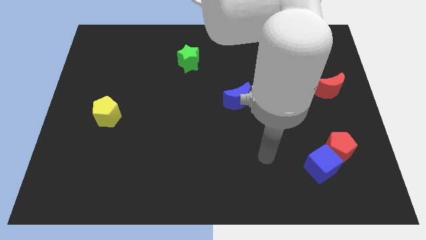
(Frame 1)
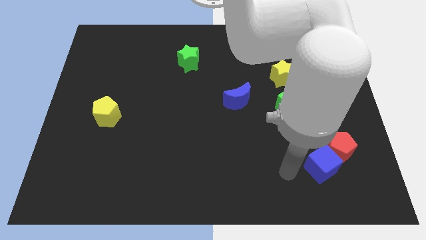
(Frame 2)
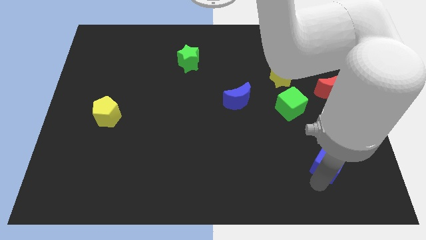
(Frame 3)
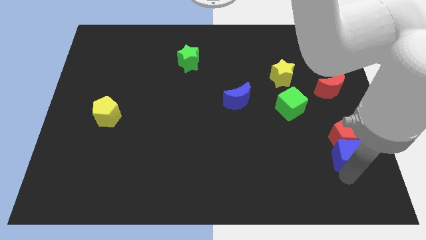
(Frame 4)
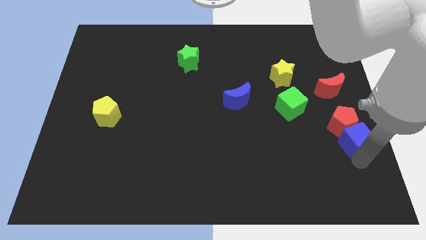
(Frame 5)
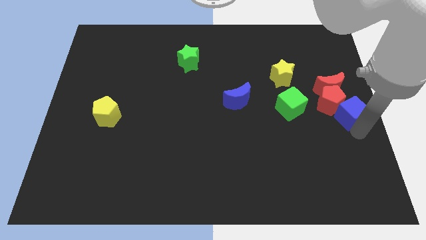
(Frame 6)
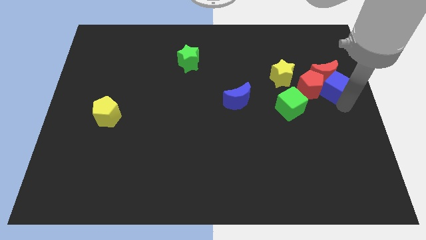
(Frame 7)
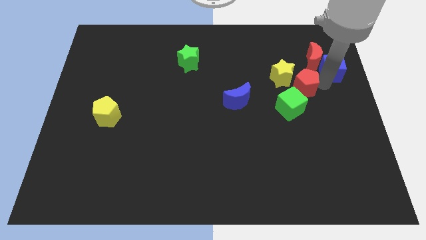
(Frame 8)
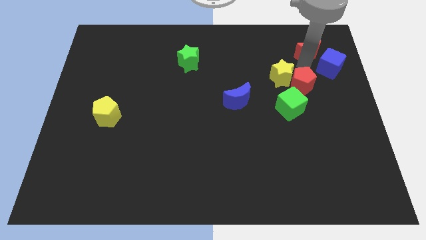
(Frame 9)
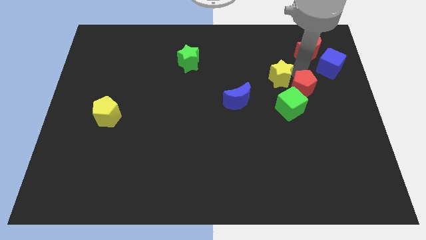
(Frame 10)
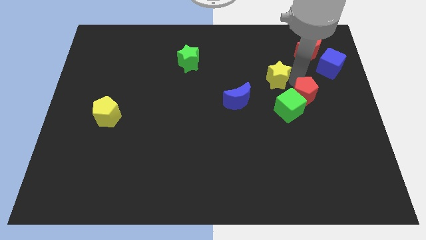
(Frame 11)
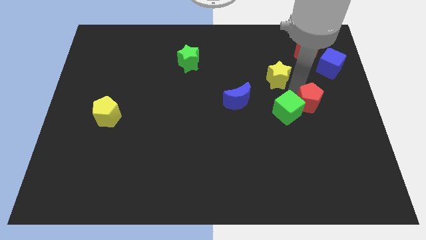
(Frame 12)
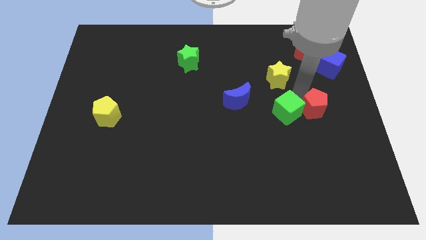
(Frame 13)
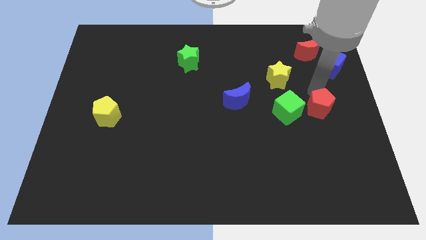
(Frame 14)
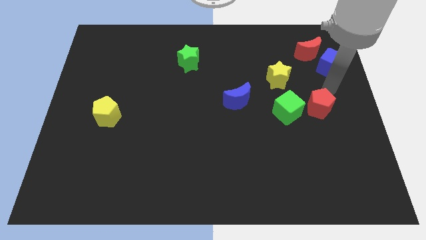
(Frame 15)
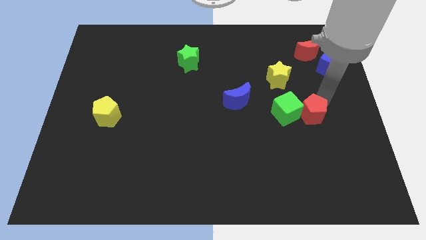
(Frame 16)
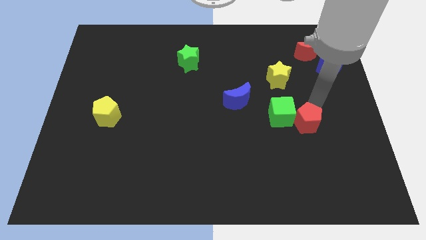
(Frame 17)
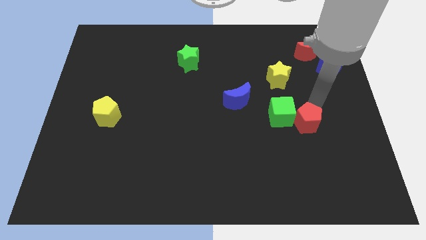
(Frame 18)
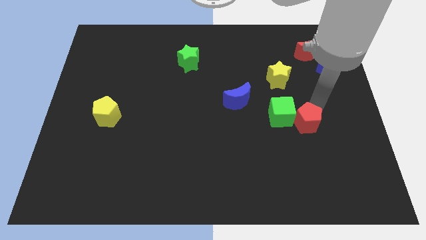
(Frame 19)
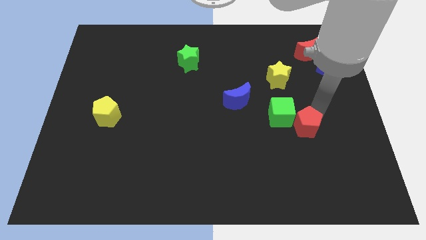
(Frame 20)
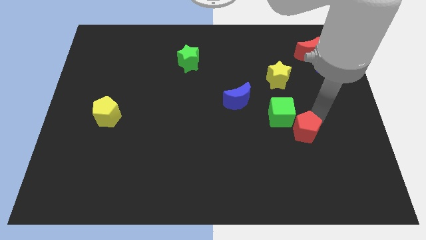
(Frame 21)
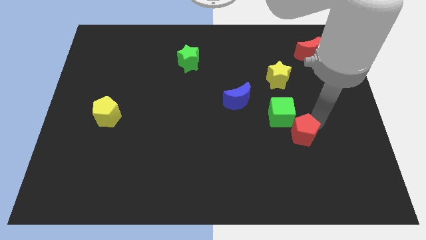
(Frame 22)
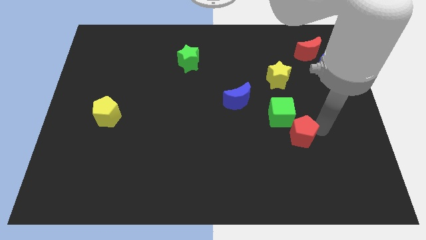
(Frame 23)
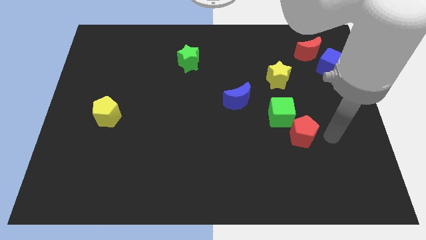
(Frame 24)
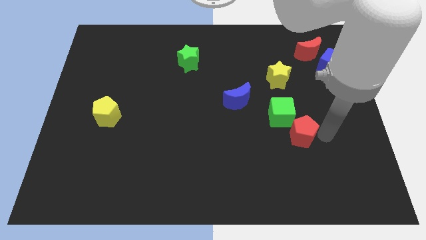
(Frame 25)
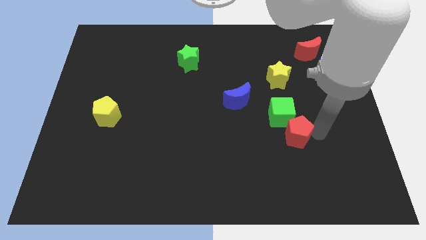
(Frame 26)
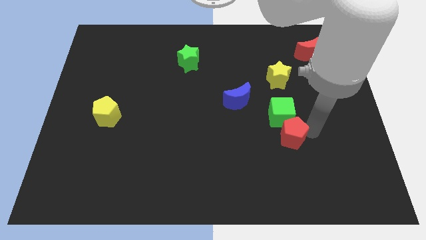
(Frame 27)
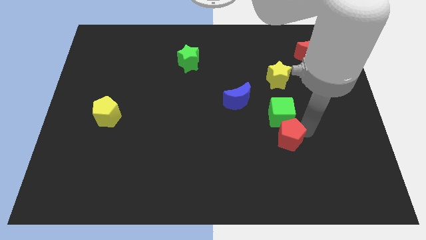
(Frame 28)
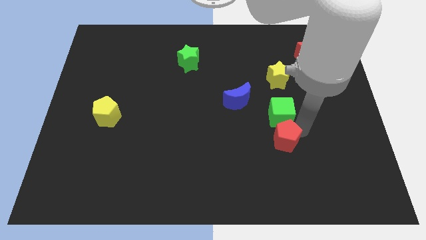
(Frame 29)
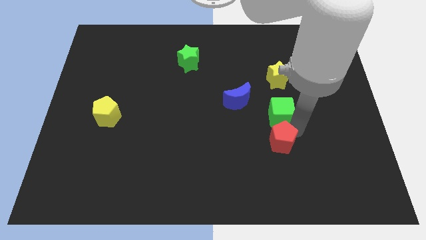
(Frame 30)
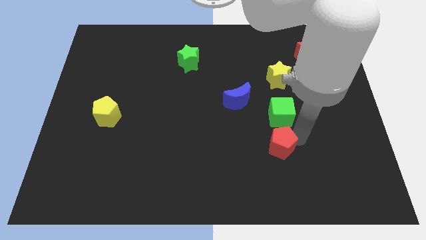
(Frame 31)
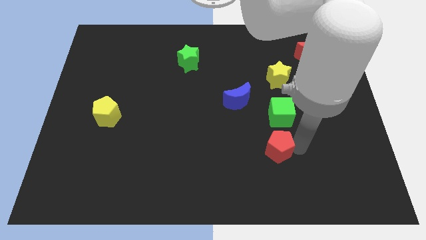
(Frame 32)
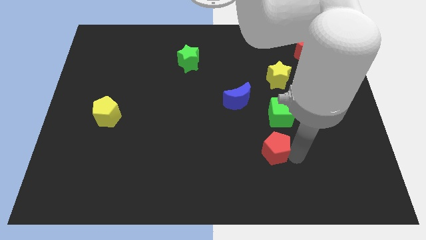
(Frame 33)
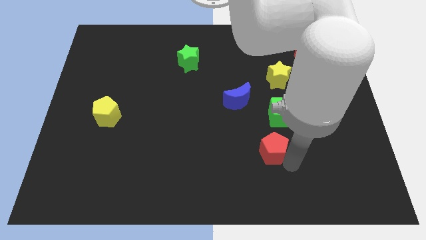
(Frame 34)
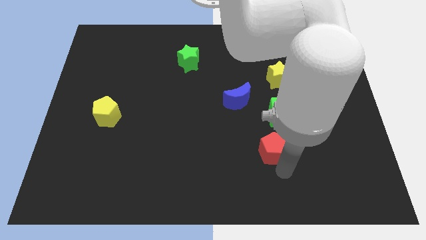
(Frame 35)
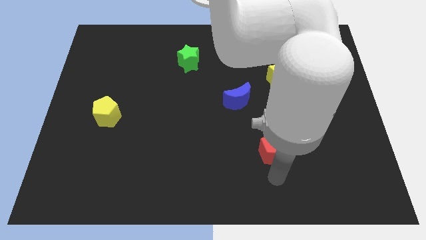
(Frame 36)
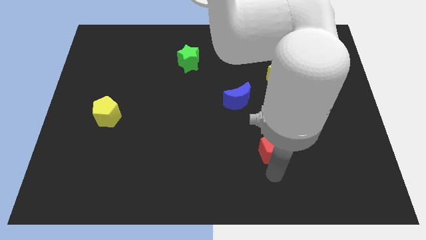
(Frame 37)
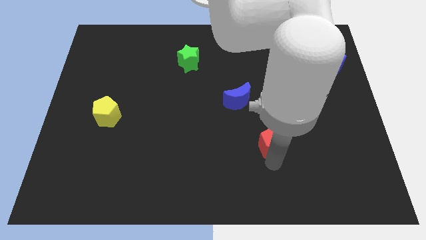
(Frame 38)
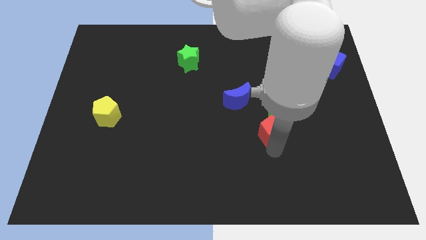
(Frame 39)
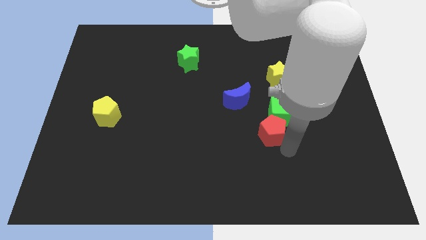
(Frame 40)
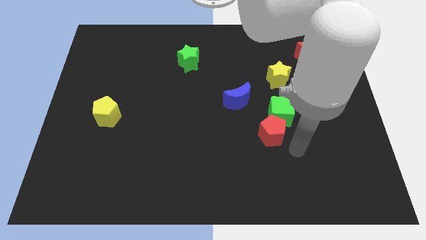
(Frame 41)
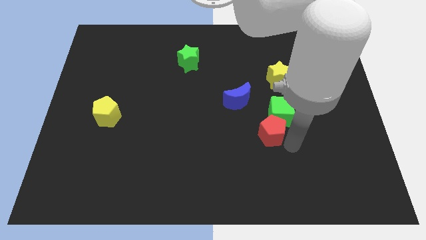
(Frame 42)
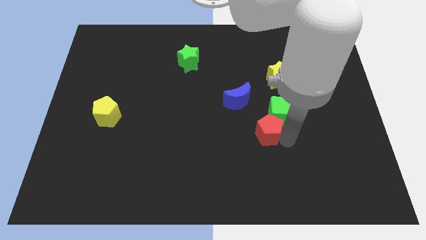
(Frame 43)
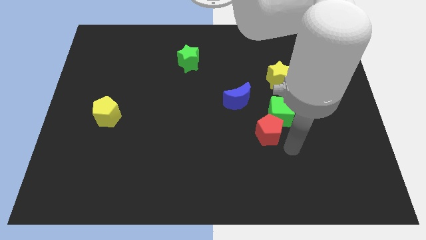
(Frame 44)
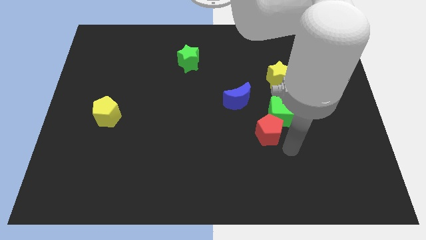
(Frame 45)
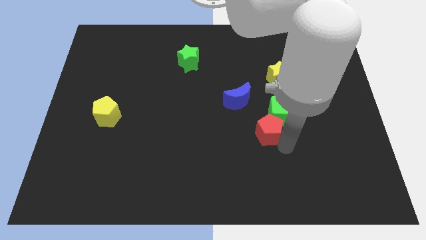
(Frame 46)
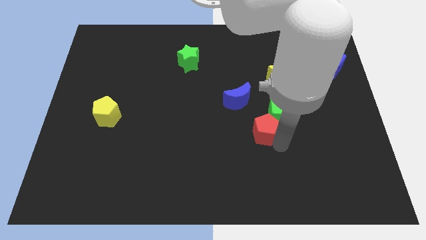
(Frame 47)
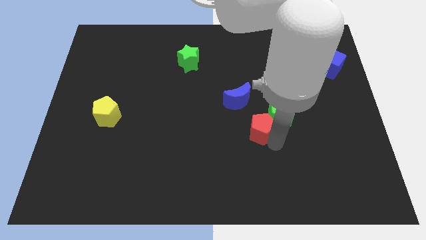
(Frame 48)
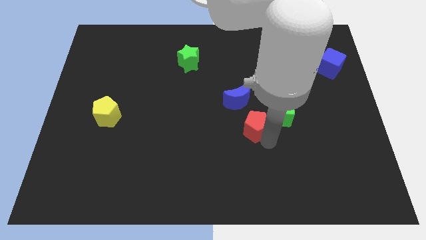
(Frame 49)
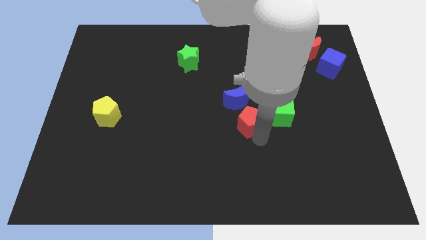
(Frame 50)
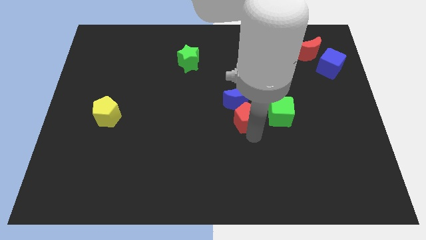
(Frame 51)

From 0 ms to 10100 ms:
move the red pentagon to the blue moon

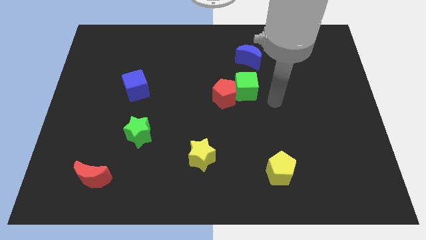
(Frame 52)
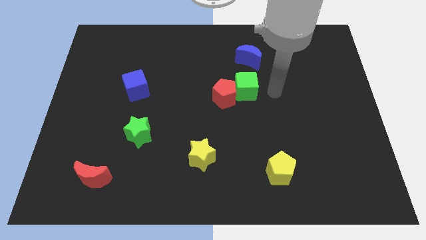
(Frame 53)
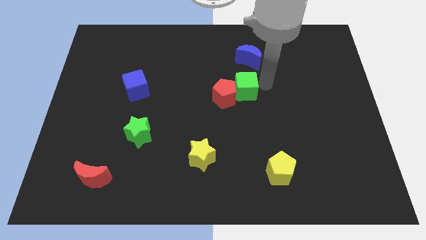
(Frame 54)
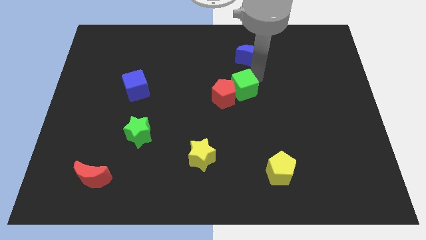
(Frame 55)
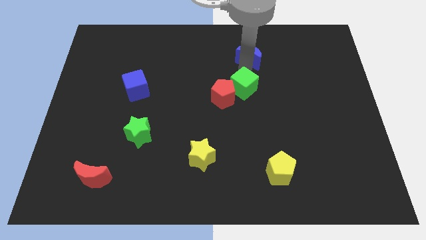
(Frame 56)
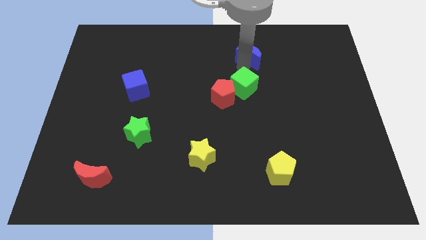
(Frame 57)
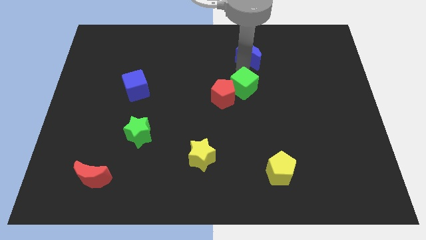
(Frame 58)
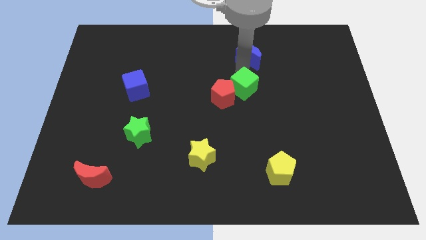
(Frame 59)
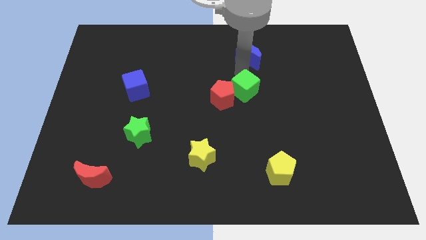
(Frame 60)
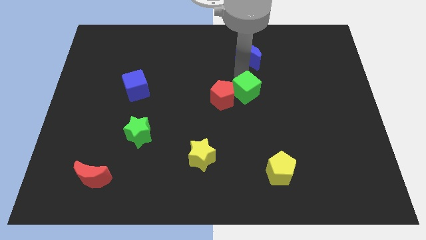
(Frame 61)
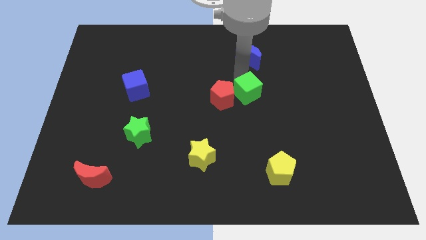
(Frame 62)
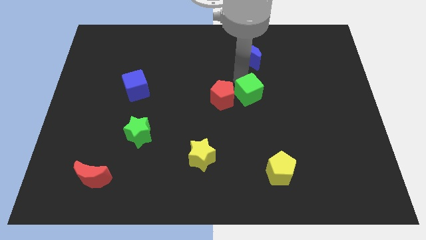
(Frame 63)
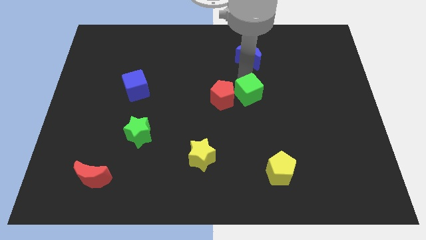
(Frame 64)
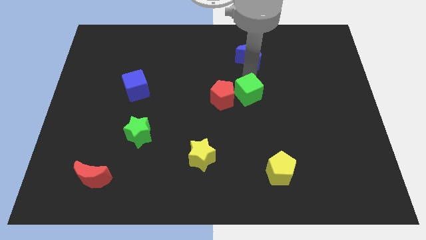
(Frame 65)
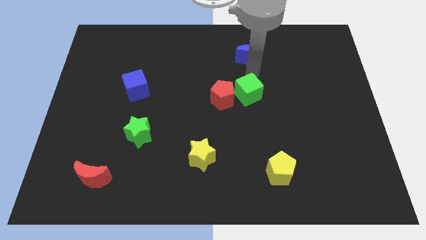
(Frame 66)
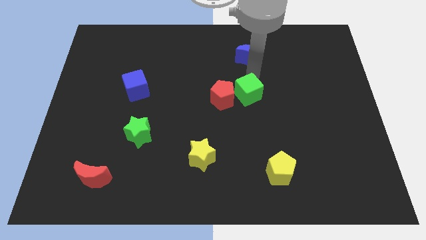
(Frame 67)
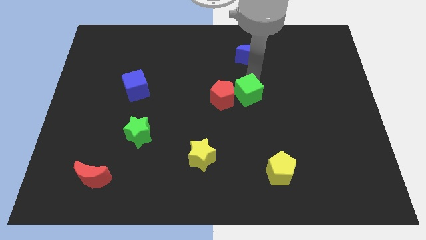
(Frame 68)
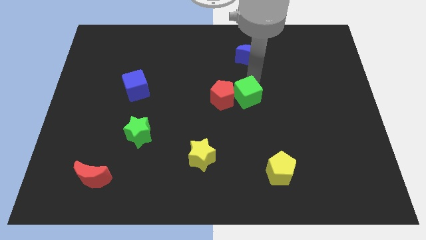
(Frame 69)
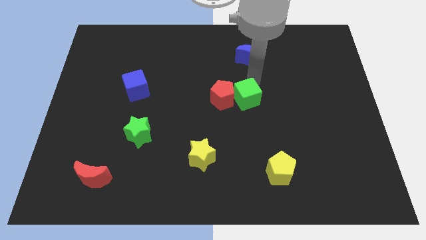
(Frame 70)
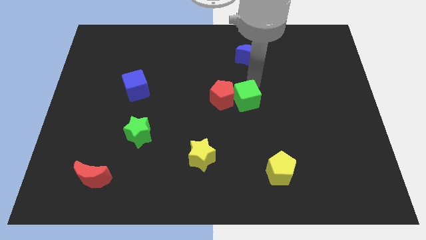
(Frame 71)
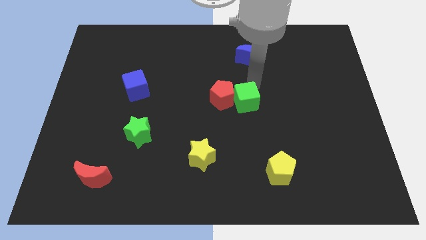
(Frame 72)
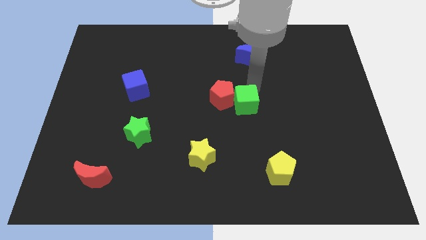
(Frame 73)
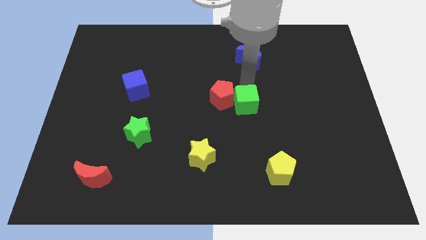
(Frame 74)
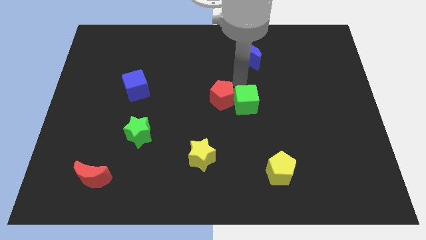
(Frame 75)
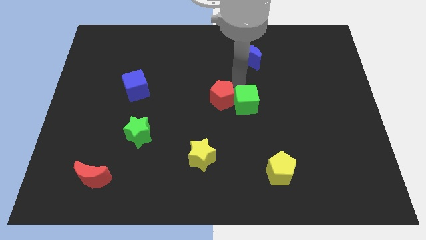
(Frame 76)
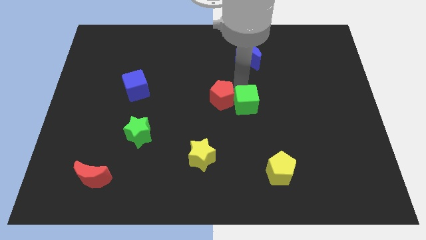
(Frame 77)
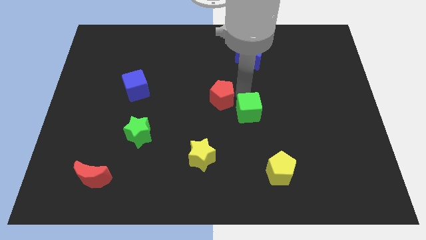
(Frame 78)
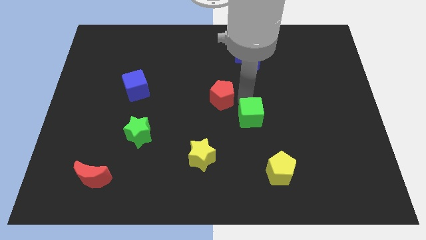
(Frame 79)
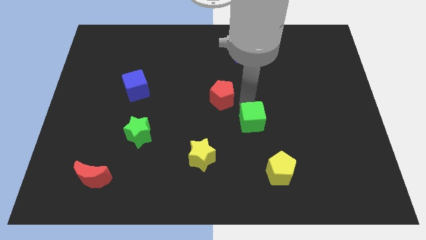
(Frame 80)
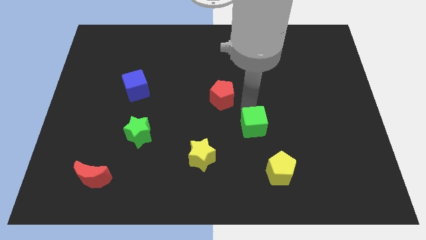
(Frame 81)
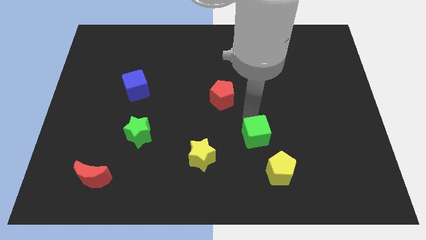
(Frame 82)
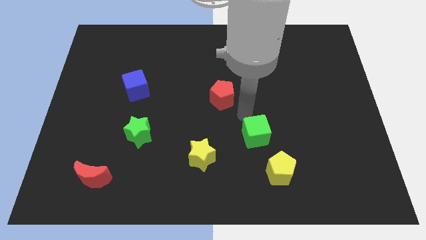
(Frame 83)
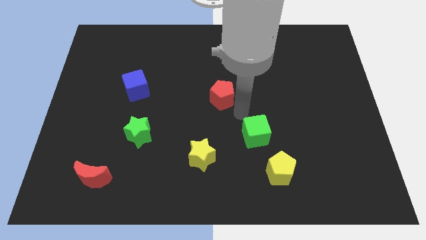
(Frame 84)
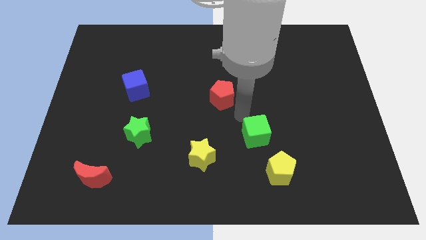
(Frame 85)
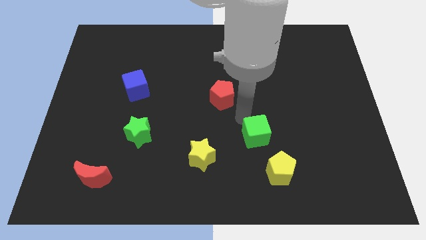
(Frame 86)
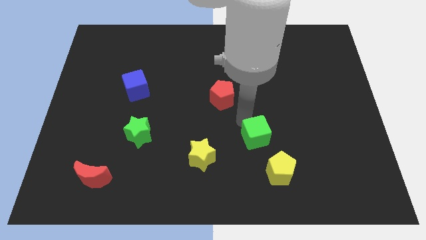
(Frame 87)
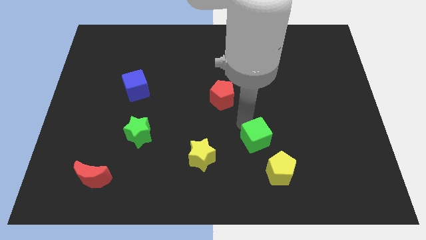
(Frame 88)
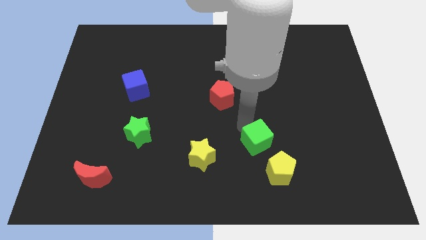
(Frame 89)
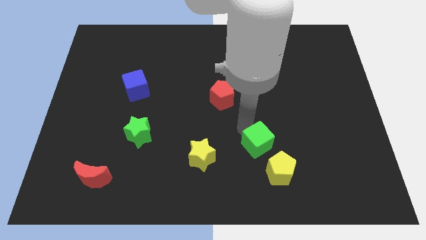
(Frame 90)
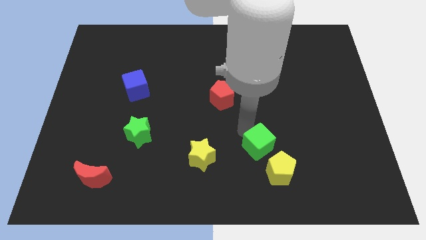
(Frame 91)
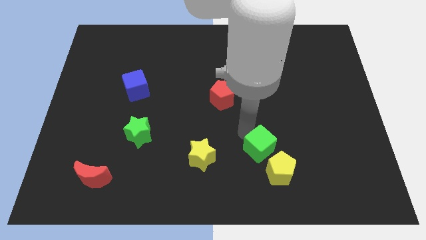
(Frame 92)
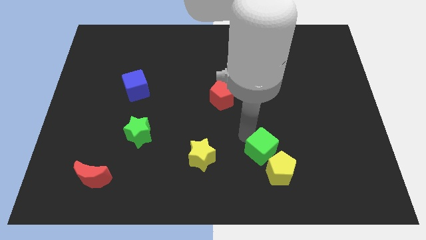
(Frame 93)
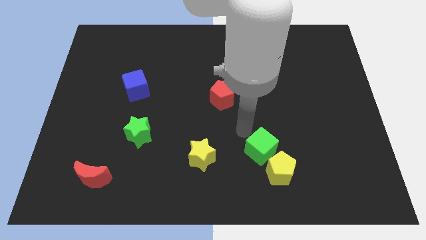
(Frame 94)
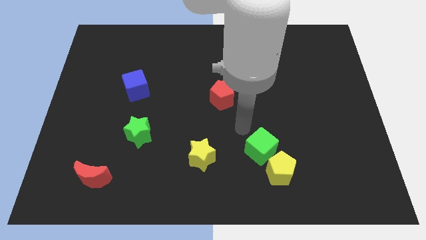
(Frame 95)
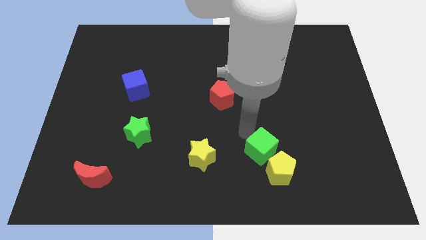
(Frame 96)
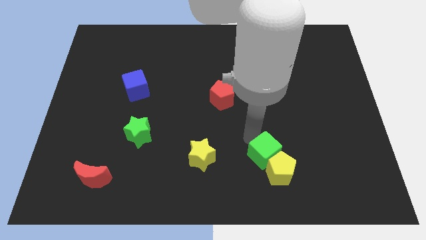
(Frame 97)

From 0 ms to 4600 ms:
push the green cube towards the yellow pentagon
